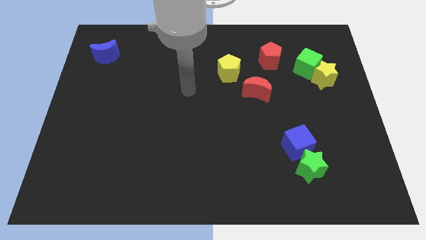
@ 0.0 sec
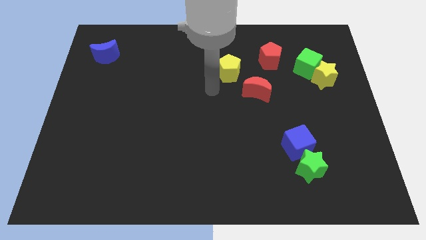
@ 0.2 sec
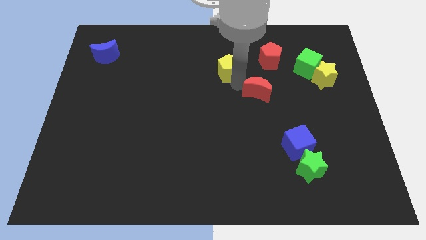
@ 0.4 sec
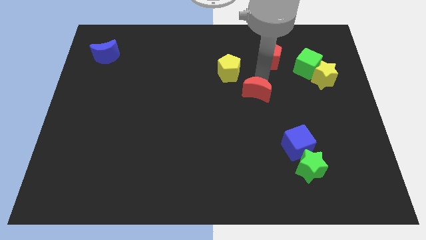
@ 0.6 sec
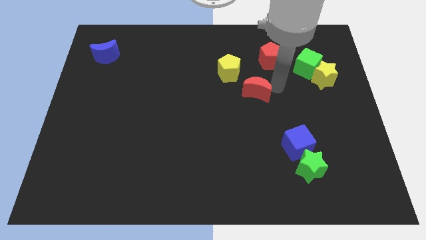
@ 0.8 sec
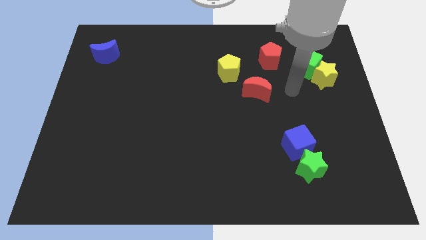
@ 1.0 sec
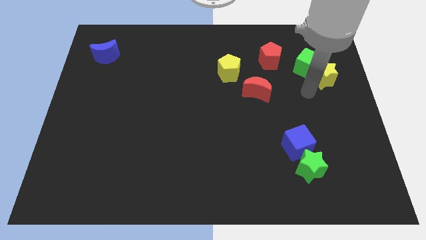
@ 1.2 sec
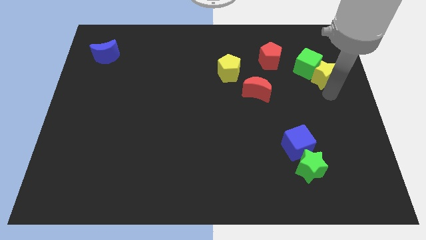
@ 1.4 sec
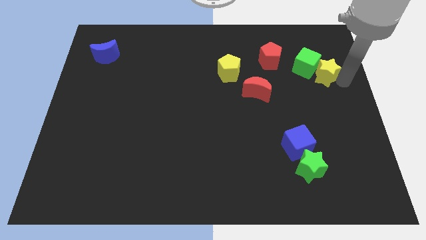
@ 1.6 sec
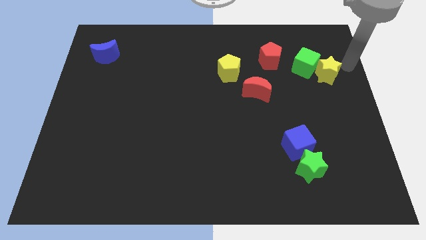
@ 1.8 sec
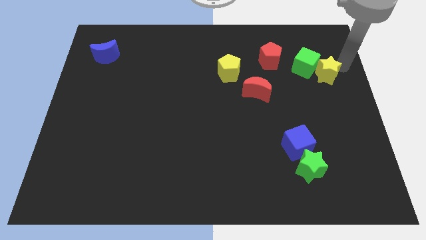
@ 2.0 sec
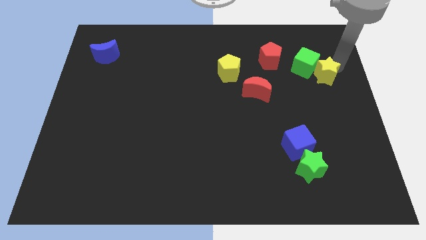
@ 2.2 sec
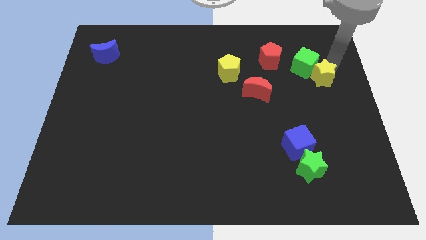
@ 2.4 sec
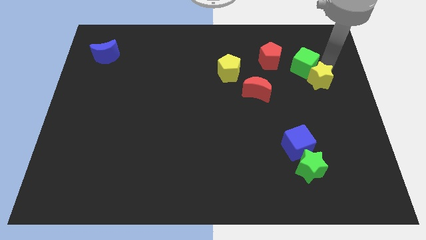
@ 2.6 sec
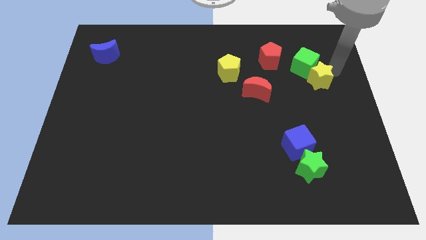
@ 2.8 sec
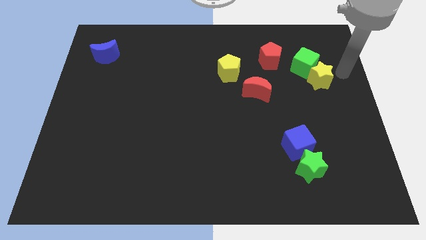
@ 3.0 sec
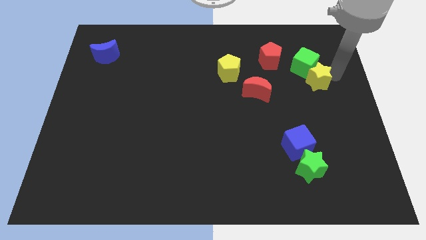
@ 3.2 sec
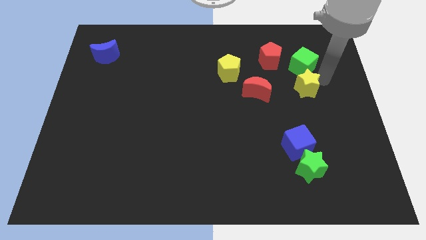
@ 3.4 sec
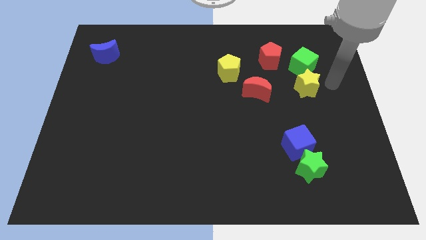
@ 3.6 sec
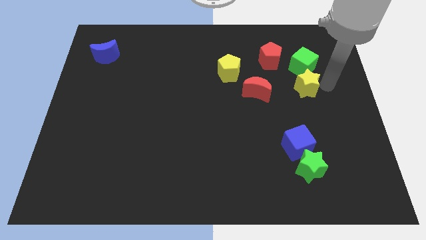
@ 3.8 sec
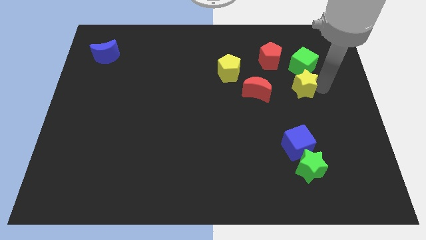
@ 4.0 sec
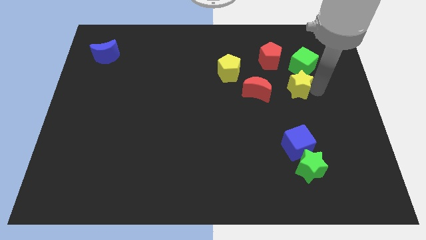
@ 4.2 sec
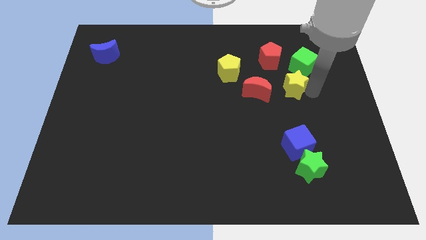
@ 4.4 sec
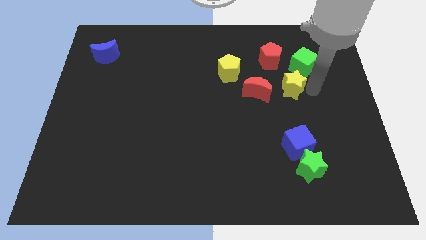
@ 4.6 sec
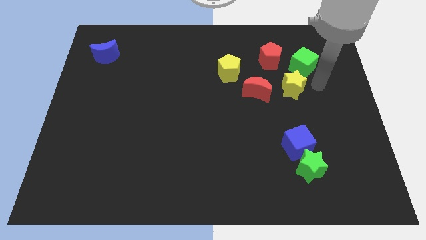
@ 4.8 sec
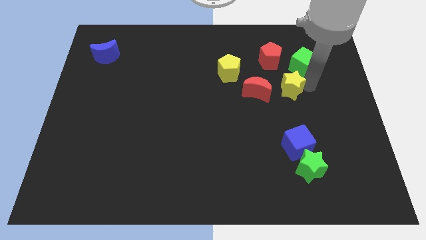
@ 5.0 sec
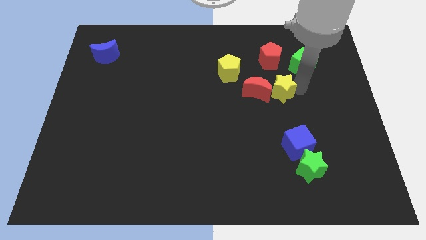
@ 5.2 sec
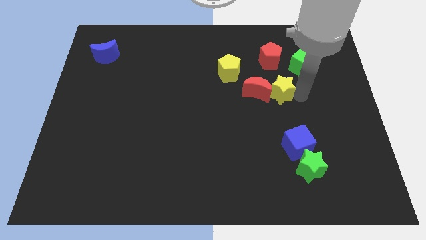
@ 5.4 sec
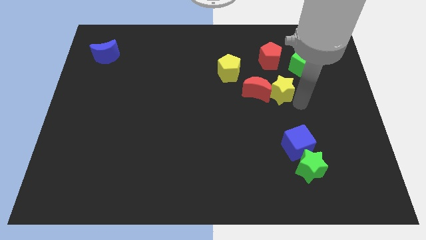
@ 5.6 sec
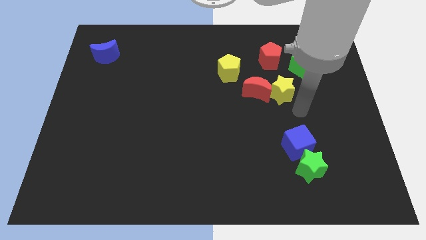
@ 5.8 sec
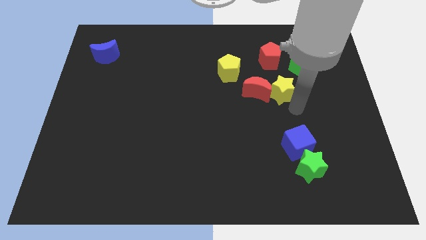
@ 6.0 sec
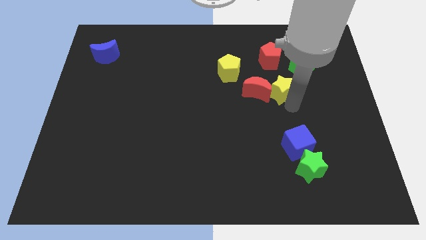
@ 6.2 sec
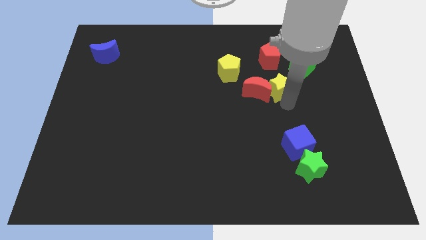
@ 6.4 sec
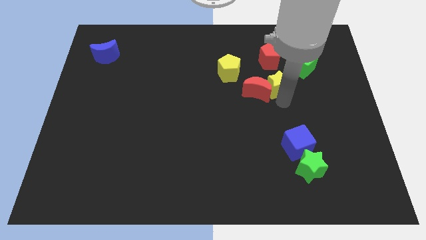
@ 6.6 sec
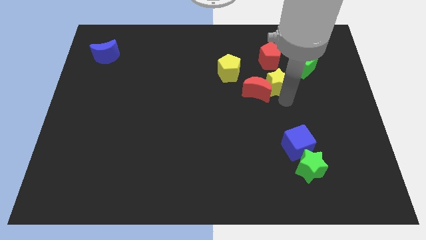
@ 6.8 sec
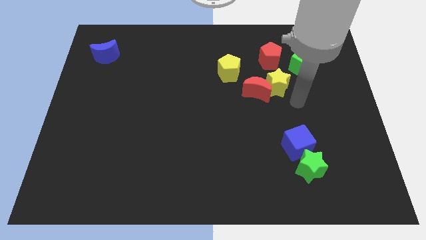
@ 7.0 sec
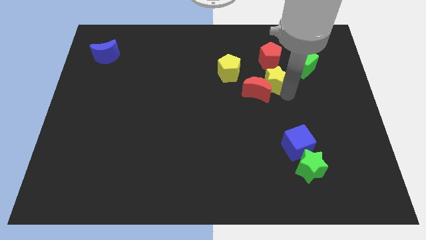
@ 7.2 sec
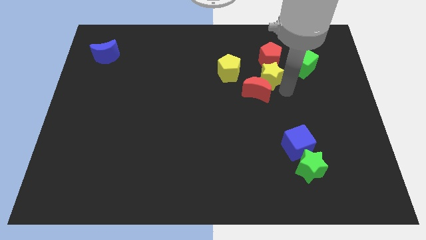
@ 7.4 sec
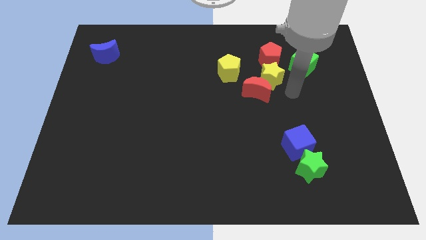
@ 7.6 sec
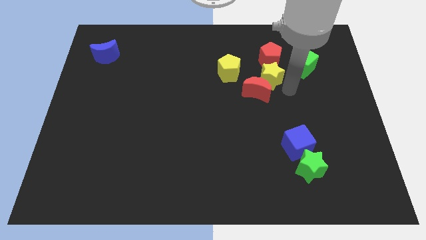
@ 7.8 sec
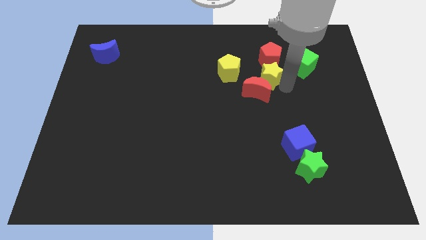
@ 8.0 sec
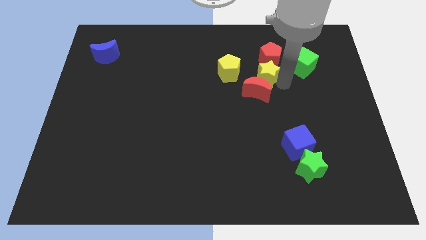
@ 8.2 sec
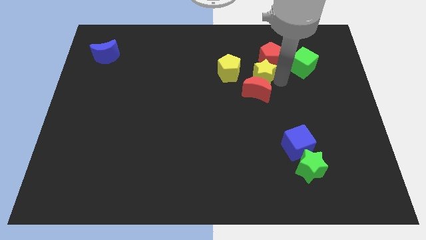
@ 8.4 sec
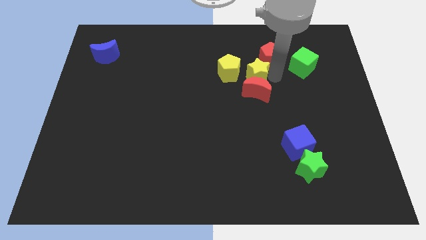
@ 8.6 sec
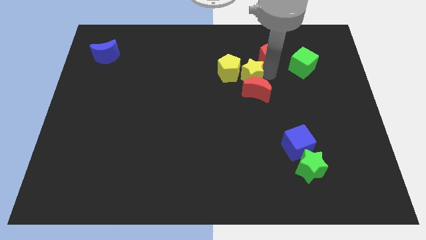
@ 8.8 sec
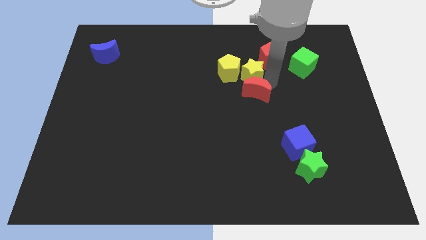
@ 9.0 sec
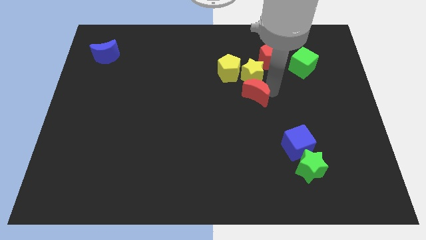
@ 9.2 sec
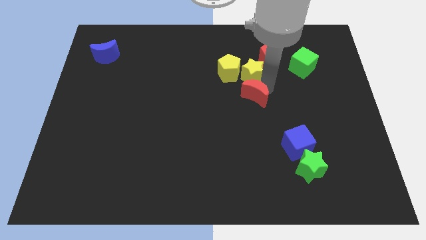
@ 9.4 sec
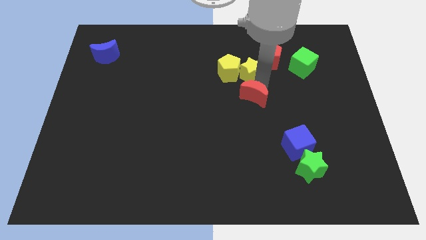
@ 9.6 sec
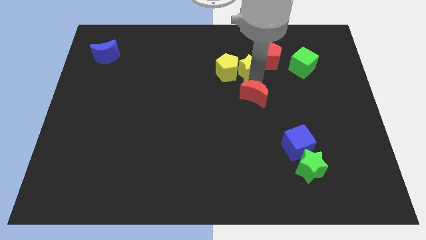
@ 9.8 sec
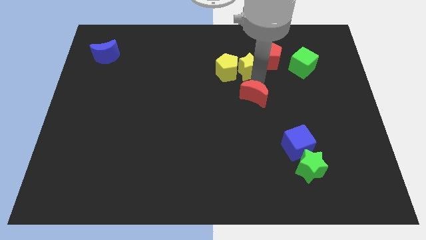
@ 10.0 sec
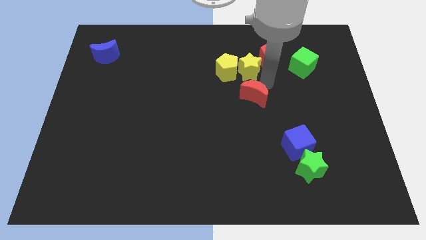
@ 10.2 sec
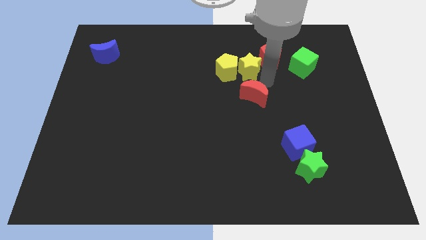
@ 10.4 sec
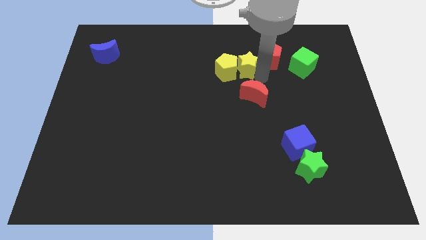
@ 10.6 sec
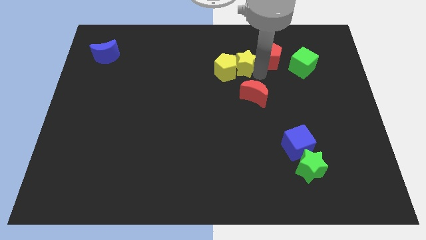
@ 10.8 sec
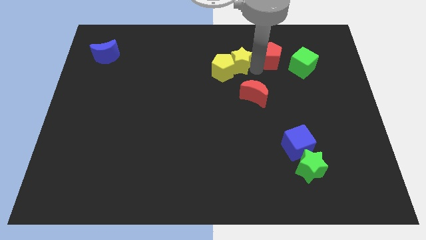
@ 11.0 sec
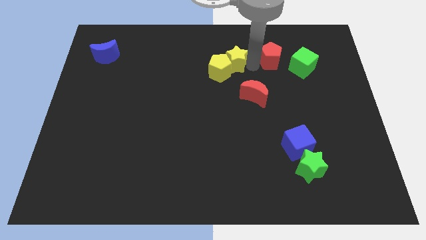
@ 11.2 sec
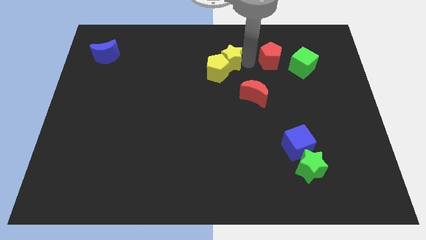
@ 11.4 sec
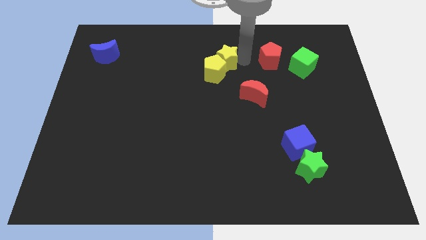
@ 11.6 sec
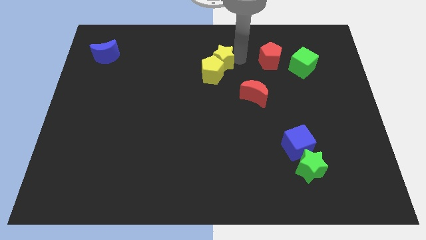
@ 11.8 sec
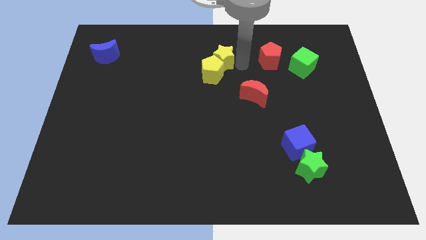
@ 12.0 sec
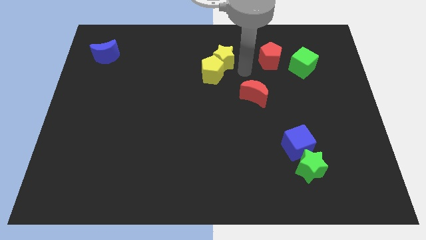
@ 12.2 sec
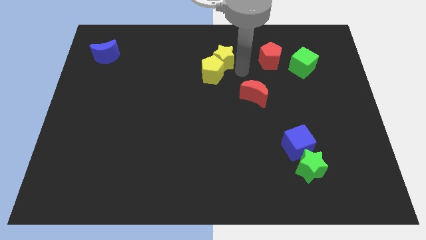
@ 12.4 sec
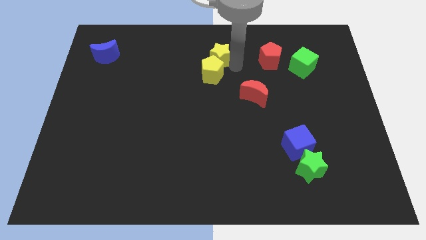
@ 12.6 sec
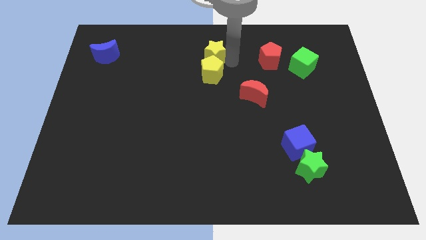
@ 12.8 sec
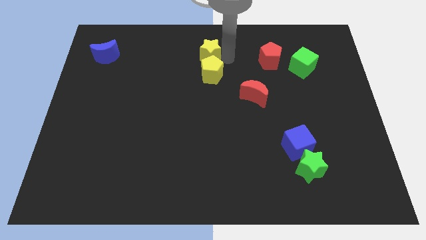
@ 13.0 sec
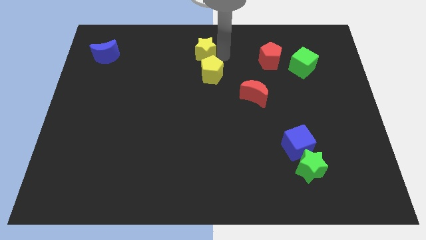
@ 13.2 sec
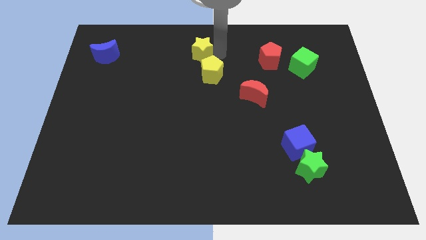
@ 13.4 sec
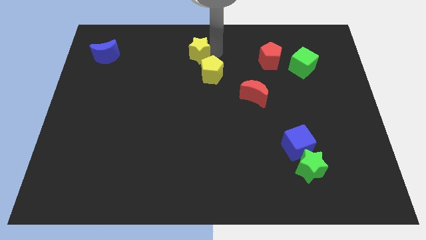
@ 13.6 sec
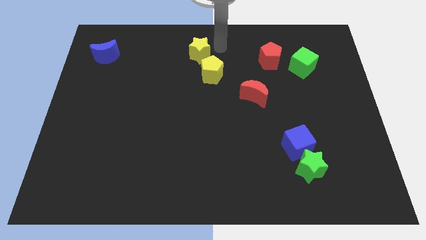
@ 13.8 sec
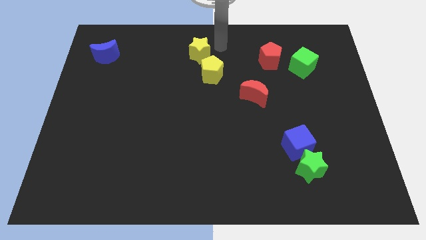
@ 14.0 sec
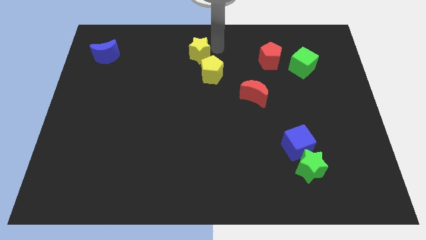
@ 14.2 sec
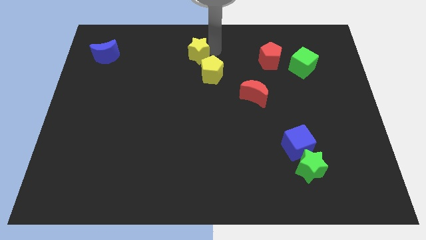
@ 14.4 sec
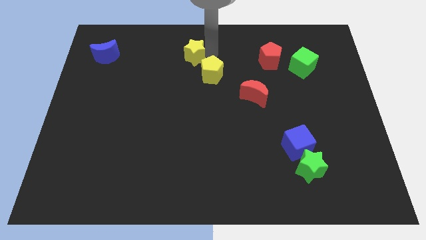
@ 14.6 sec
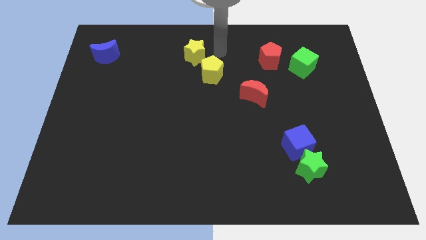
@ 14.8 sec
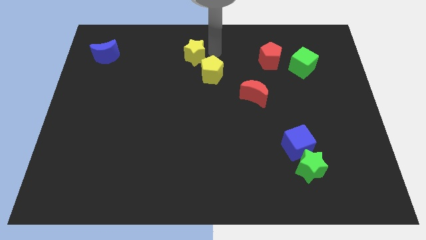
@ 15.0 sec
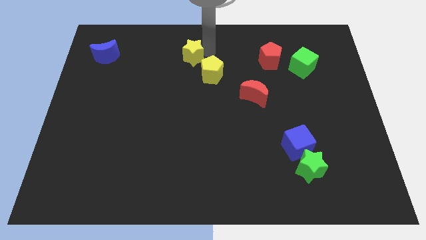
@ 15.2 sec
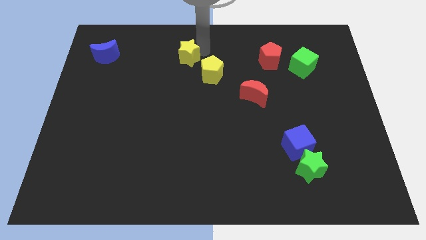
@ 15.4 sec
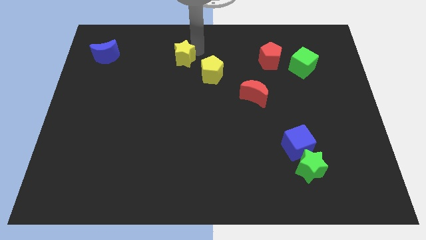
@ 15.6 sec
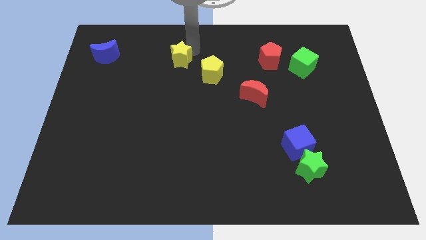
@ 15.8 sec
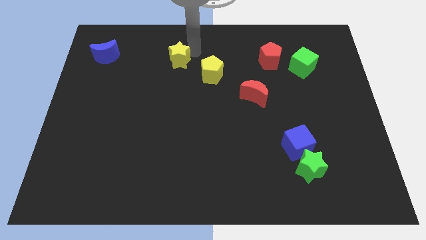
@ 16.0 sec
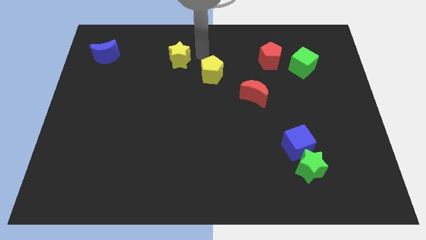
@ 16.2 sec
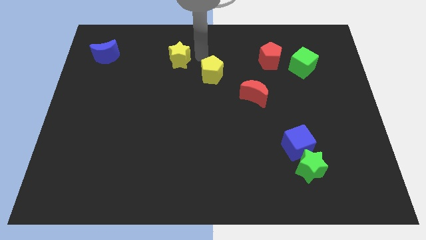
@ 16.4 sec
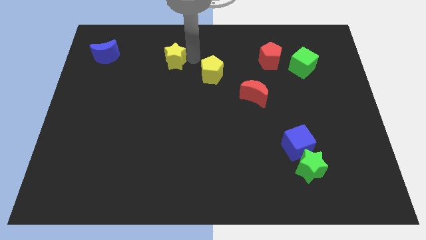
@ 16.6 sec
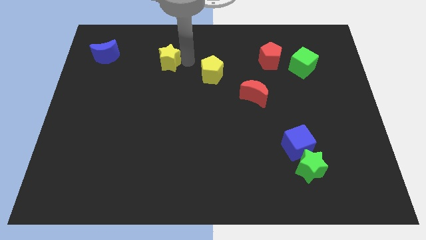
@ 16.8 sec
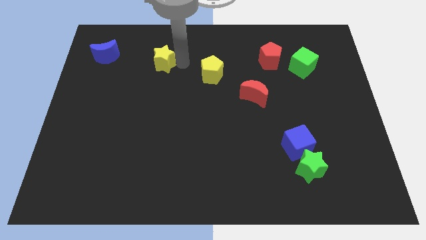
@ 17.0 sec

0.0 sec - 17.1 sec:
put the yellow star right of the blue moon
